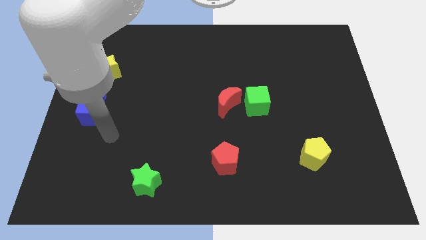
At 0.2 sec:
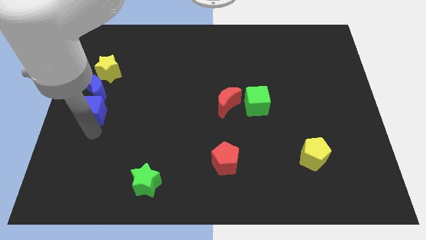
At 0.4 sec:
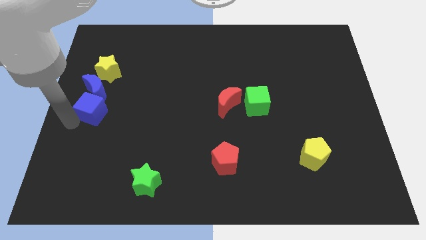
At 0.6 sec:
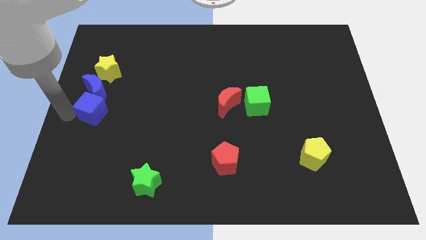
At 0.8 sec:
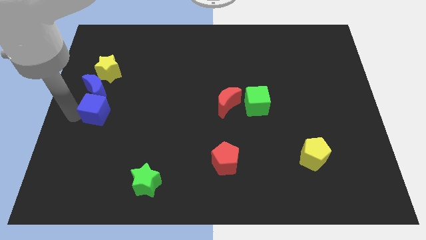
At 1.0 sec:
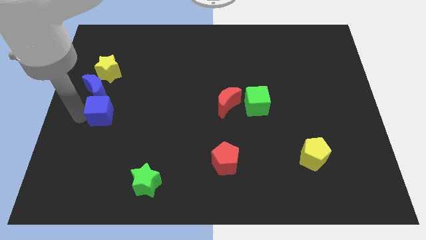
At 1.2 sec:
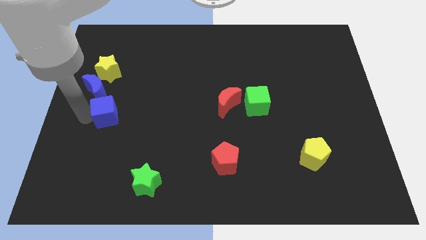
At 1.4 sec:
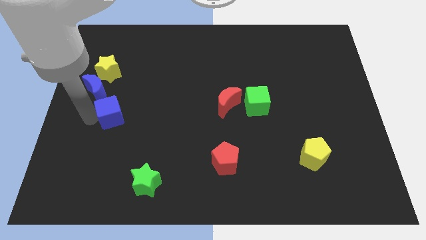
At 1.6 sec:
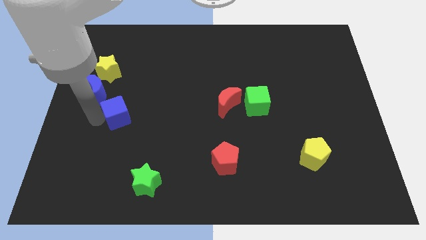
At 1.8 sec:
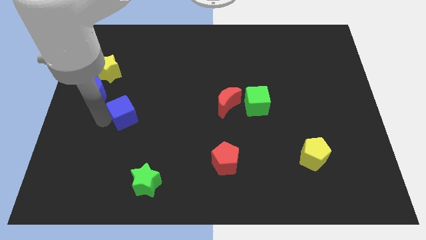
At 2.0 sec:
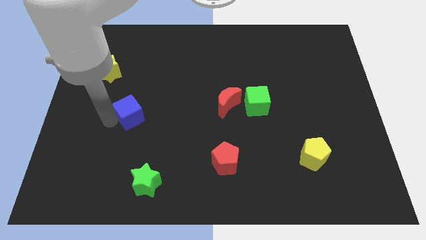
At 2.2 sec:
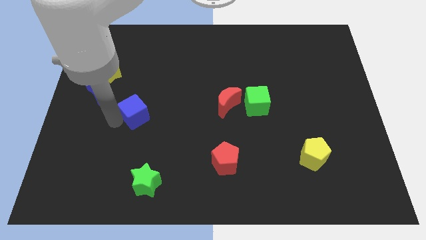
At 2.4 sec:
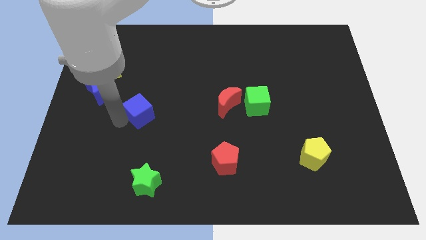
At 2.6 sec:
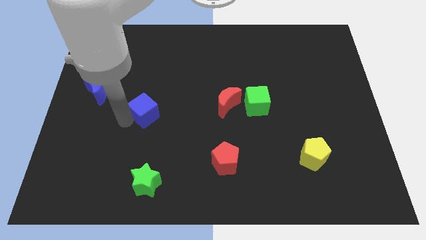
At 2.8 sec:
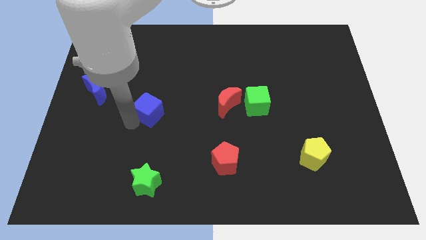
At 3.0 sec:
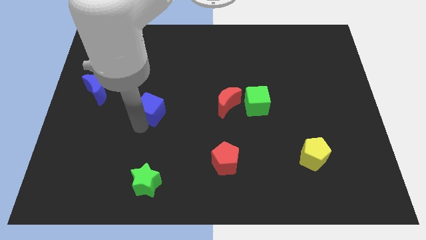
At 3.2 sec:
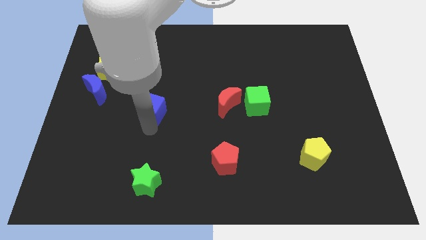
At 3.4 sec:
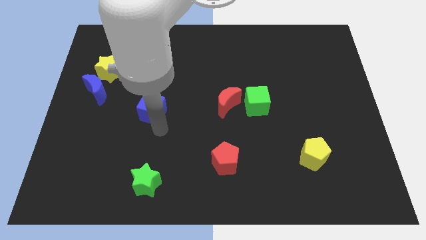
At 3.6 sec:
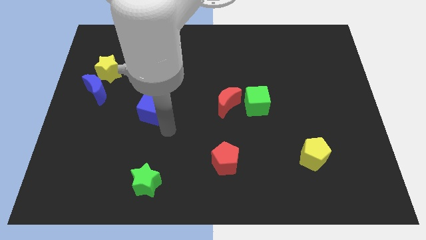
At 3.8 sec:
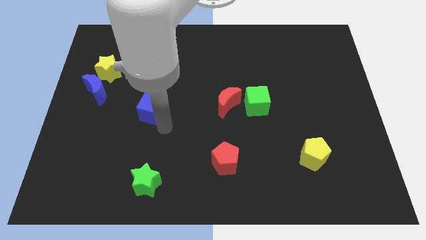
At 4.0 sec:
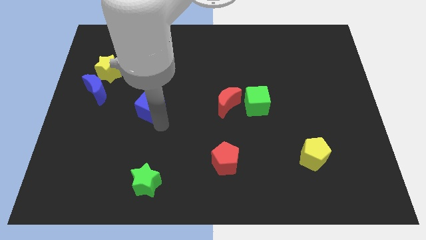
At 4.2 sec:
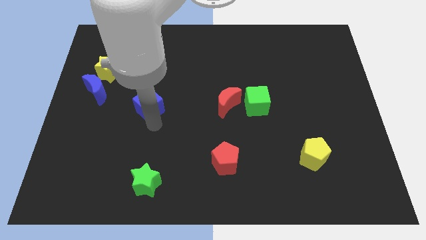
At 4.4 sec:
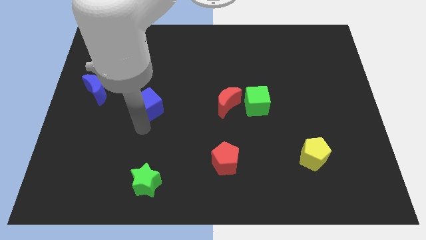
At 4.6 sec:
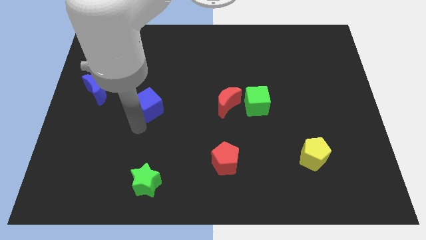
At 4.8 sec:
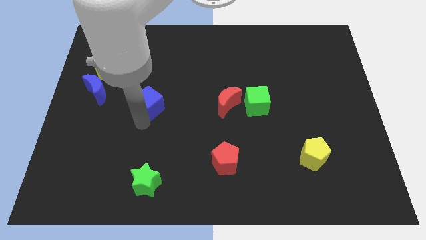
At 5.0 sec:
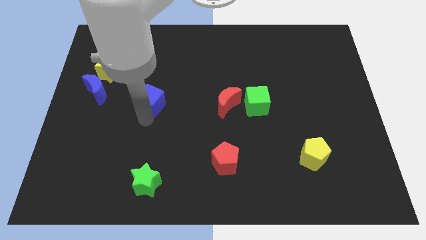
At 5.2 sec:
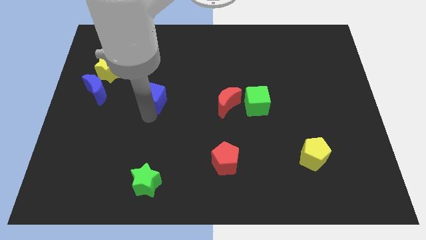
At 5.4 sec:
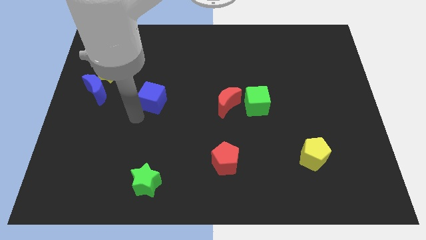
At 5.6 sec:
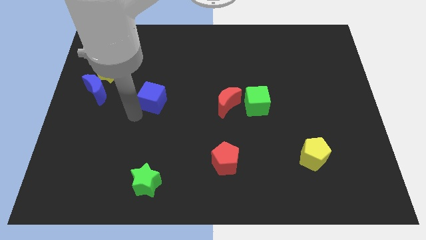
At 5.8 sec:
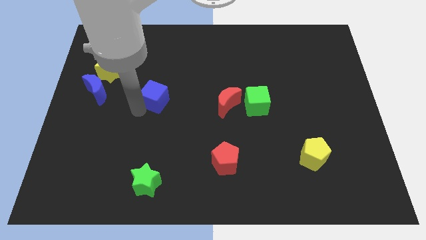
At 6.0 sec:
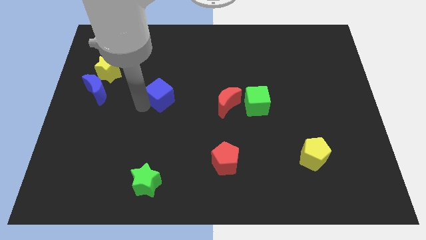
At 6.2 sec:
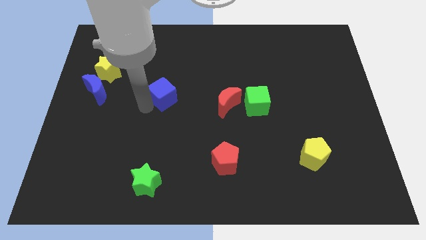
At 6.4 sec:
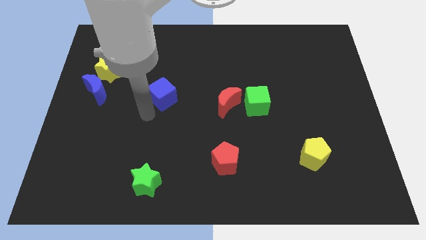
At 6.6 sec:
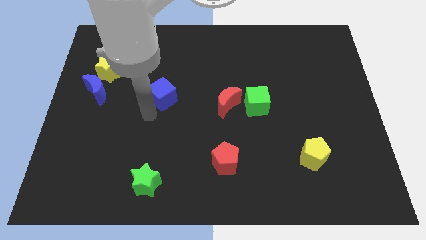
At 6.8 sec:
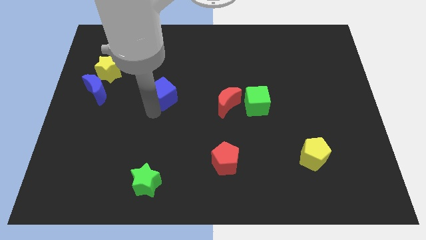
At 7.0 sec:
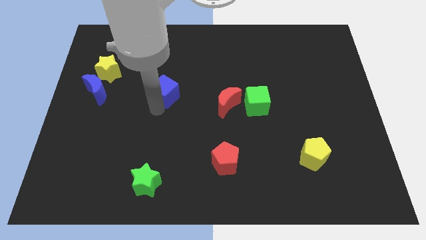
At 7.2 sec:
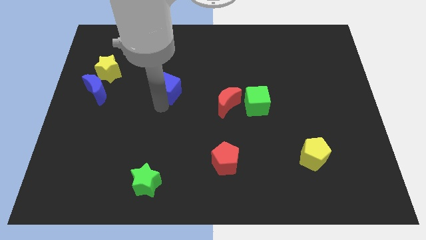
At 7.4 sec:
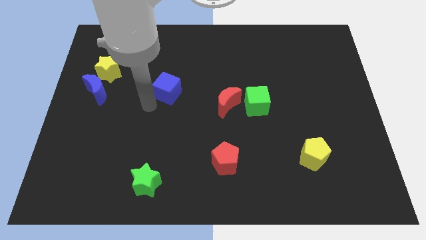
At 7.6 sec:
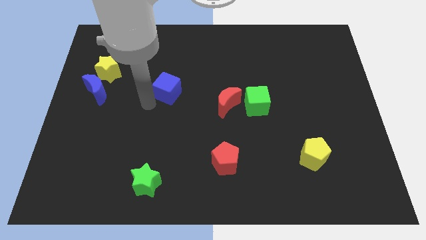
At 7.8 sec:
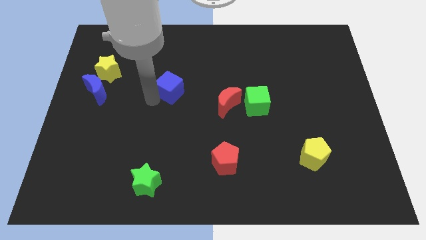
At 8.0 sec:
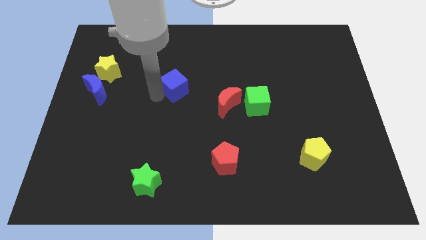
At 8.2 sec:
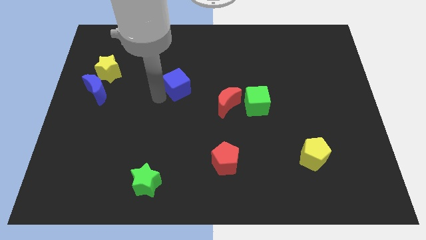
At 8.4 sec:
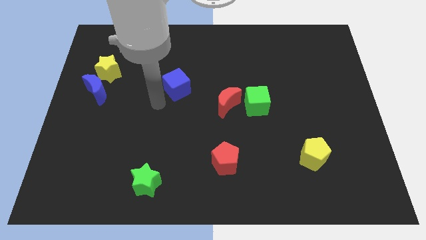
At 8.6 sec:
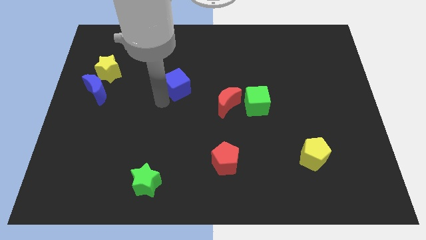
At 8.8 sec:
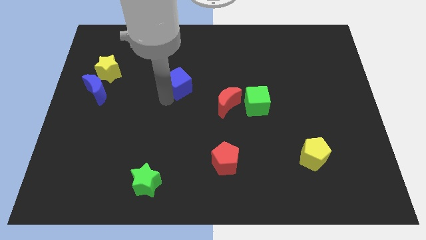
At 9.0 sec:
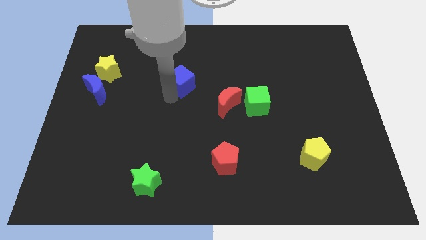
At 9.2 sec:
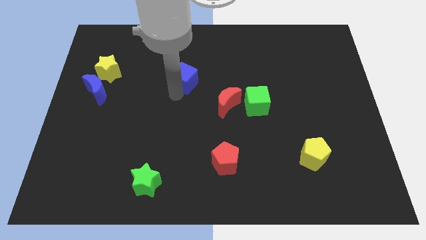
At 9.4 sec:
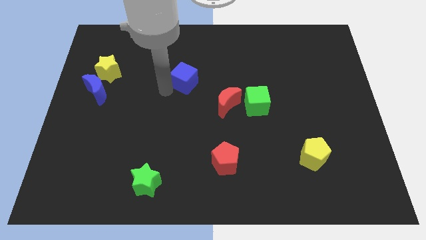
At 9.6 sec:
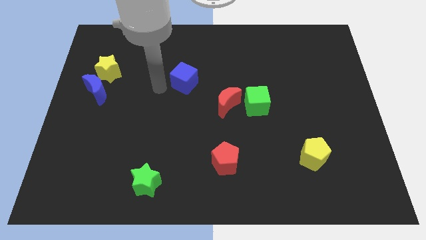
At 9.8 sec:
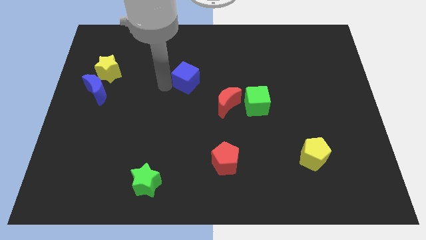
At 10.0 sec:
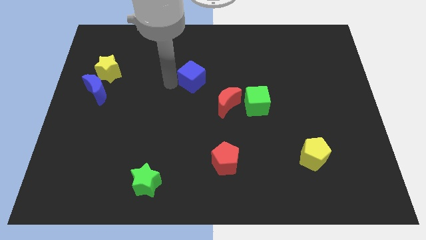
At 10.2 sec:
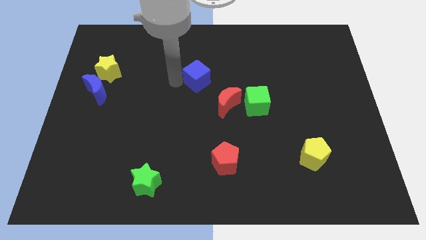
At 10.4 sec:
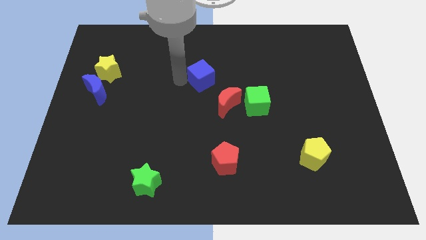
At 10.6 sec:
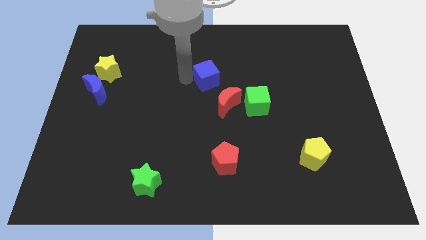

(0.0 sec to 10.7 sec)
put the blue cube above the red moon

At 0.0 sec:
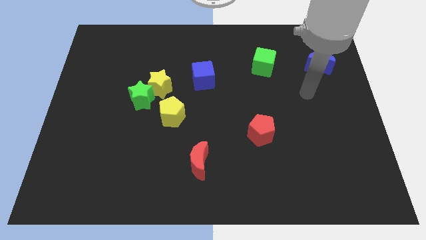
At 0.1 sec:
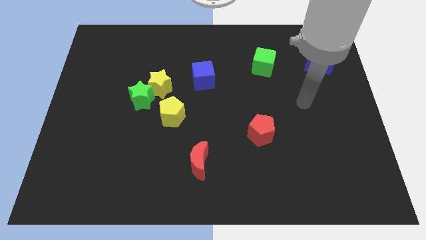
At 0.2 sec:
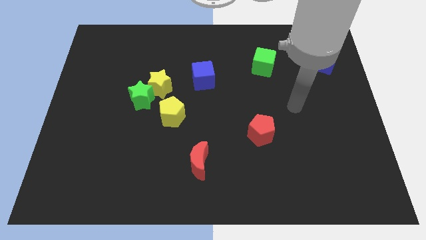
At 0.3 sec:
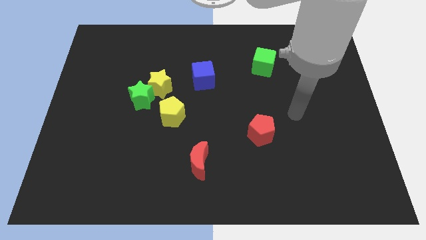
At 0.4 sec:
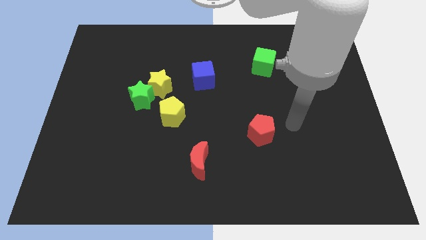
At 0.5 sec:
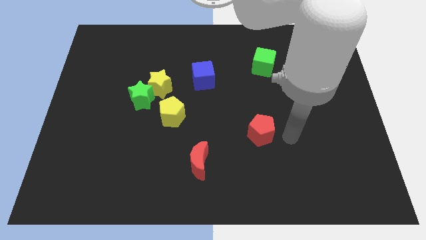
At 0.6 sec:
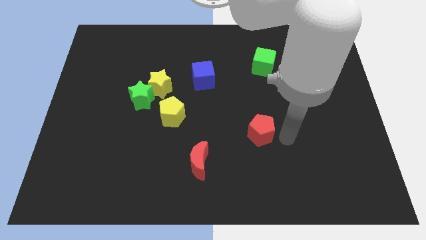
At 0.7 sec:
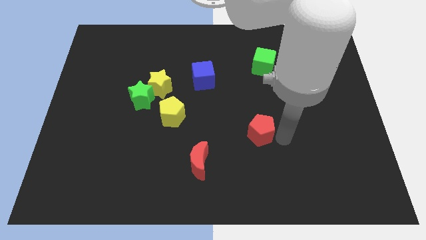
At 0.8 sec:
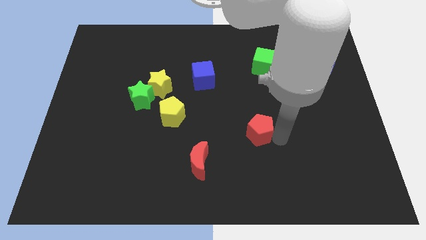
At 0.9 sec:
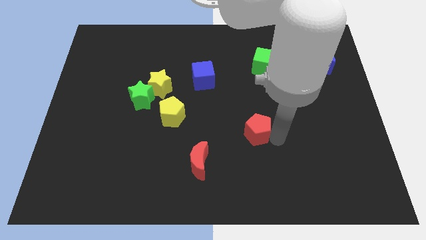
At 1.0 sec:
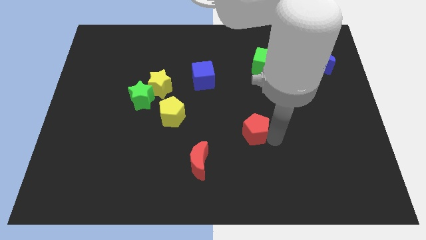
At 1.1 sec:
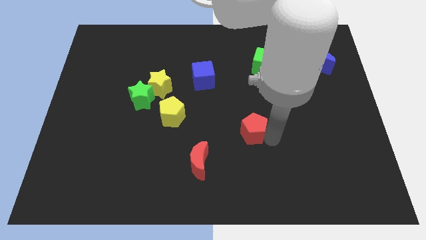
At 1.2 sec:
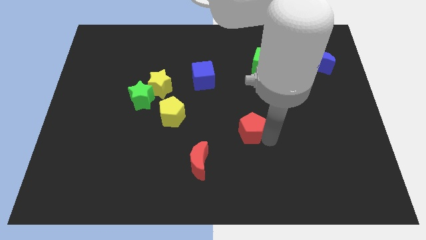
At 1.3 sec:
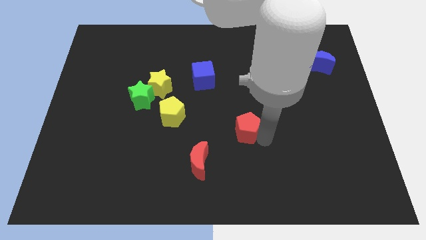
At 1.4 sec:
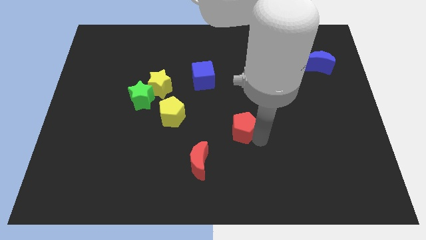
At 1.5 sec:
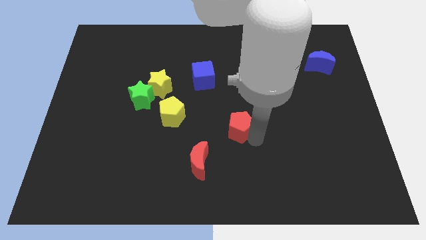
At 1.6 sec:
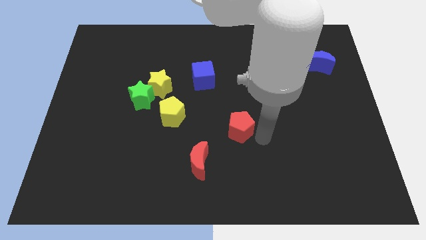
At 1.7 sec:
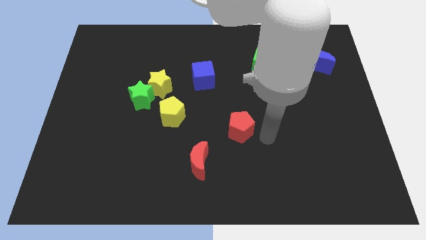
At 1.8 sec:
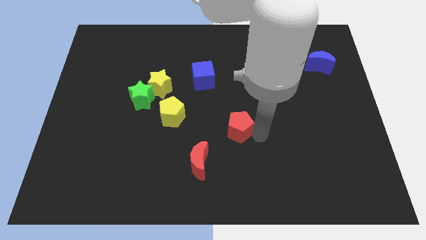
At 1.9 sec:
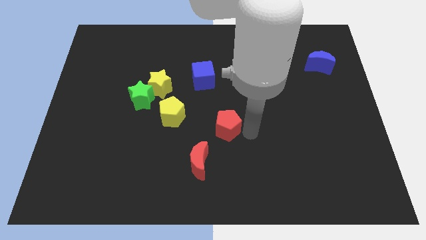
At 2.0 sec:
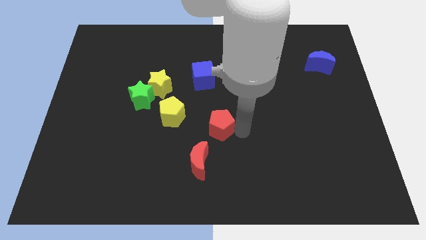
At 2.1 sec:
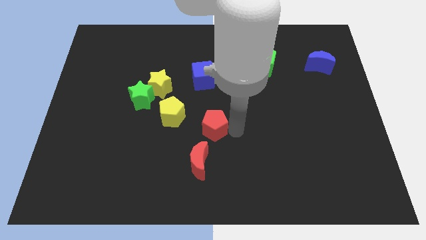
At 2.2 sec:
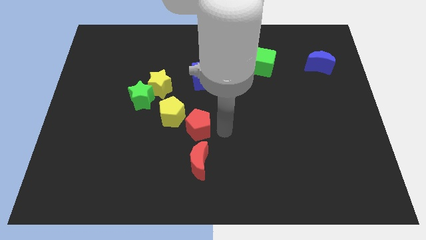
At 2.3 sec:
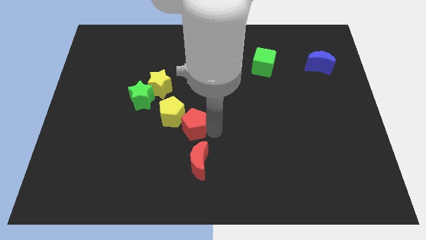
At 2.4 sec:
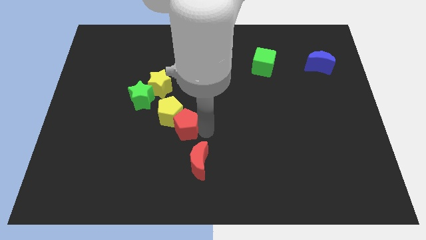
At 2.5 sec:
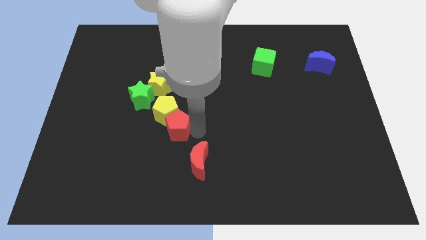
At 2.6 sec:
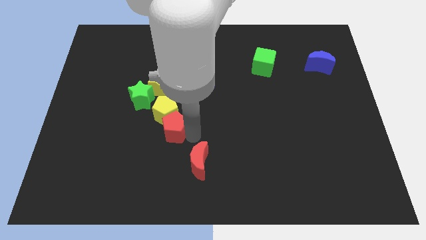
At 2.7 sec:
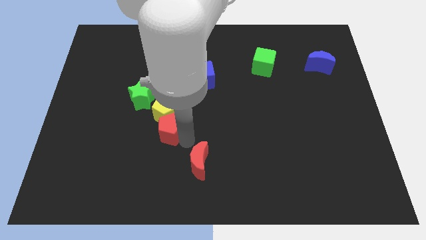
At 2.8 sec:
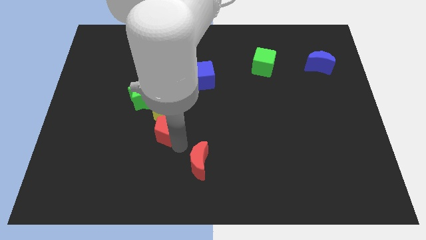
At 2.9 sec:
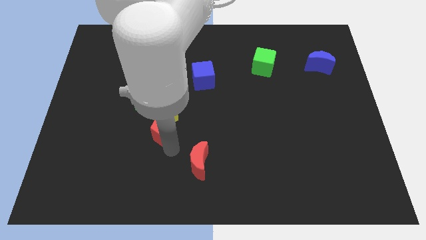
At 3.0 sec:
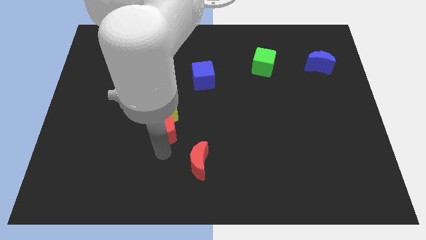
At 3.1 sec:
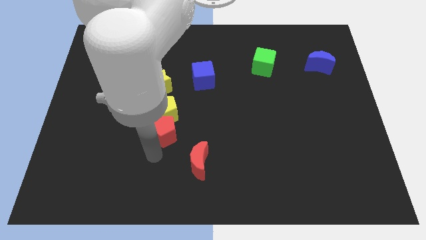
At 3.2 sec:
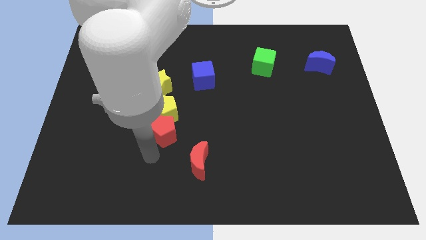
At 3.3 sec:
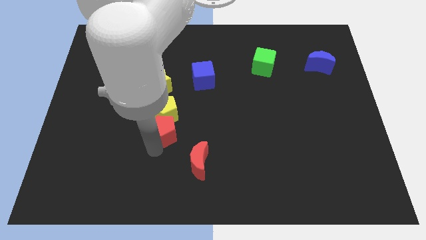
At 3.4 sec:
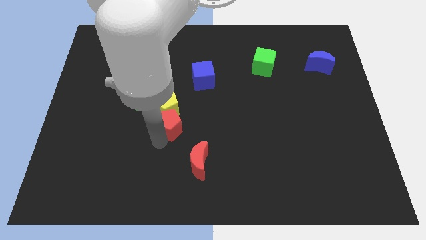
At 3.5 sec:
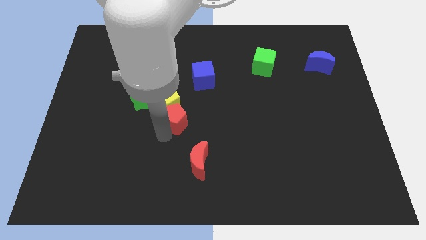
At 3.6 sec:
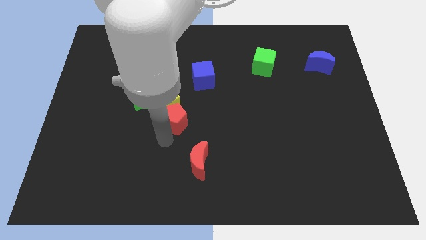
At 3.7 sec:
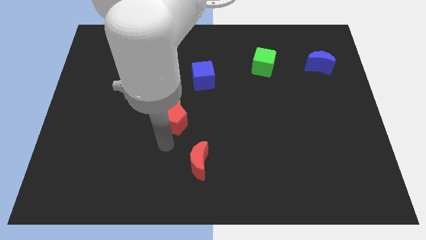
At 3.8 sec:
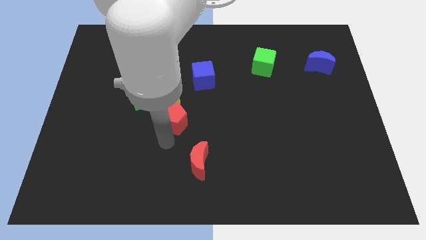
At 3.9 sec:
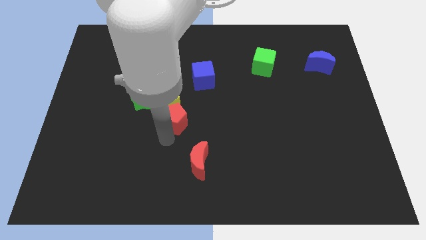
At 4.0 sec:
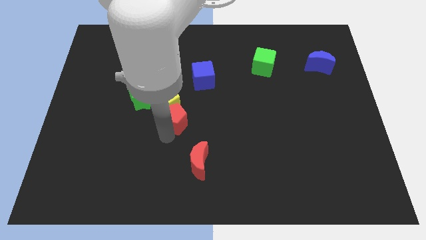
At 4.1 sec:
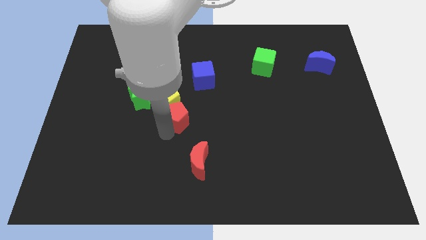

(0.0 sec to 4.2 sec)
put the red pentagon to the bottom right of the yellow star
